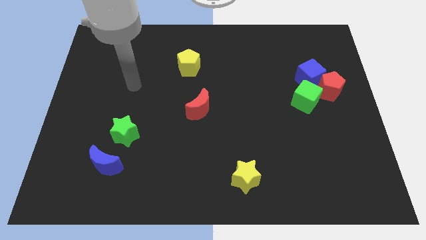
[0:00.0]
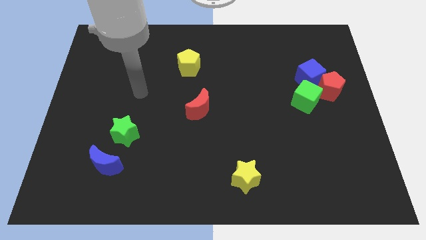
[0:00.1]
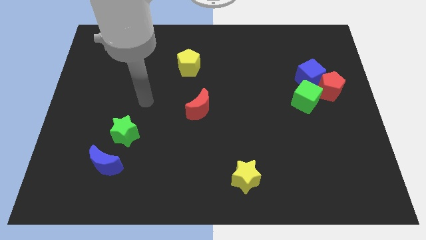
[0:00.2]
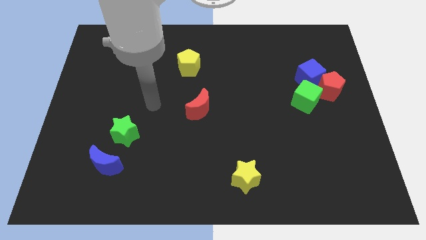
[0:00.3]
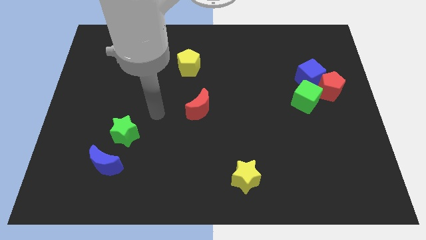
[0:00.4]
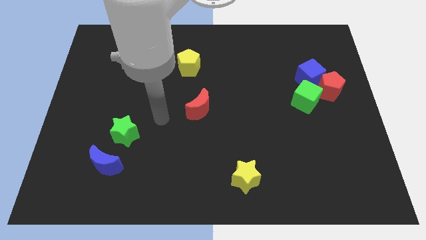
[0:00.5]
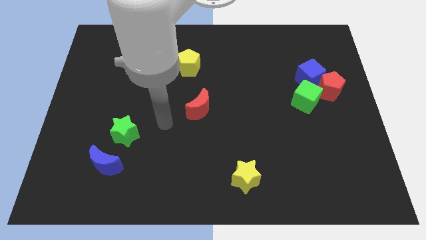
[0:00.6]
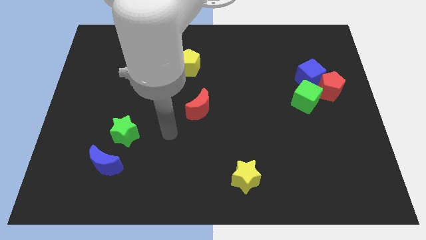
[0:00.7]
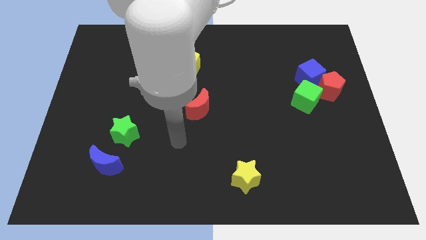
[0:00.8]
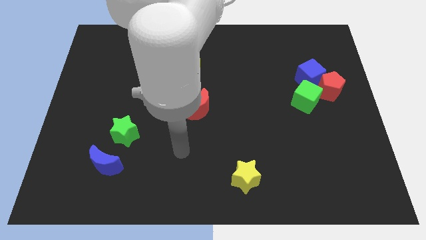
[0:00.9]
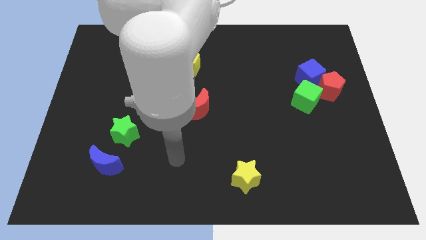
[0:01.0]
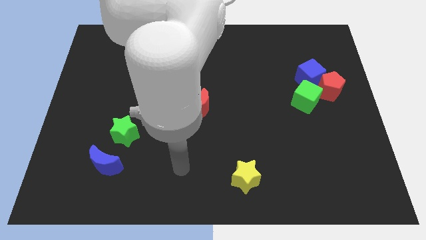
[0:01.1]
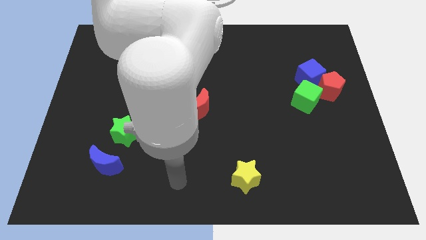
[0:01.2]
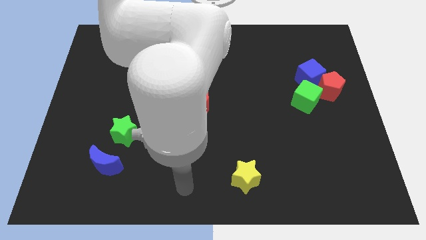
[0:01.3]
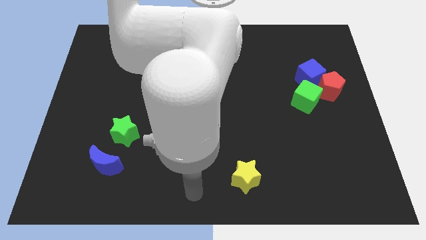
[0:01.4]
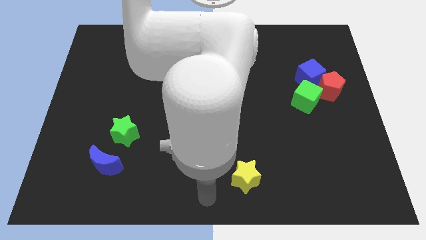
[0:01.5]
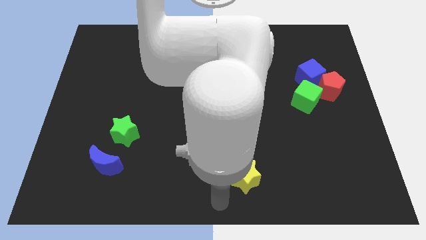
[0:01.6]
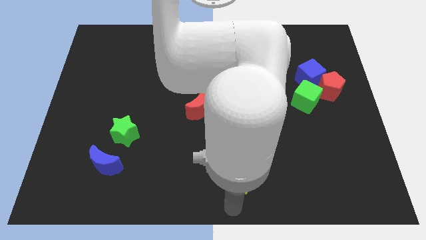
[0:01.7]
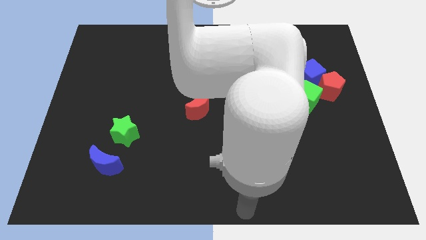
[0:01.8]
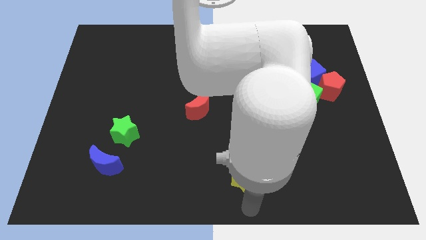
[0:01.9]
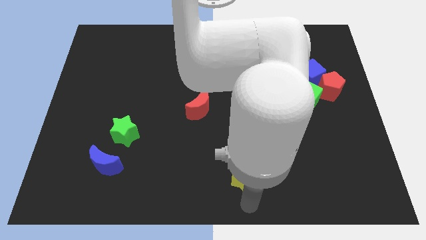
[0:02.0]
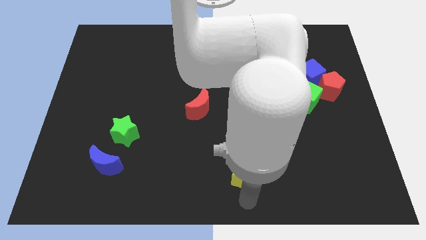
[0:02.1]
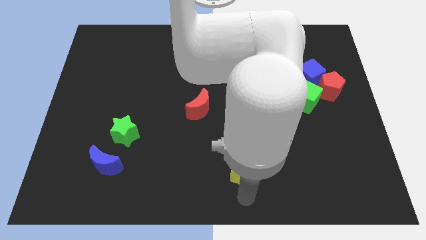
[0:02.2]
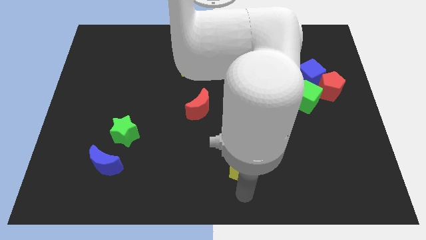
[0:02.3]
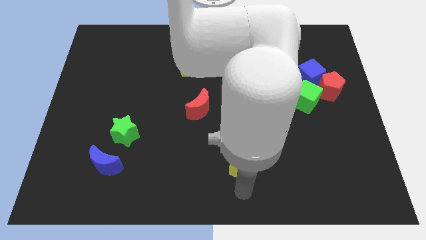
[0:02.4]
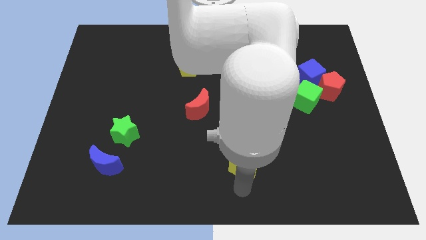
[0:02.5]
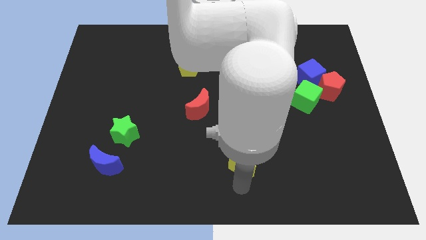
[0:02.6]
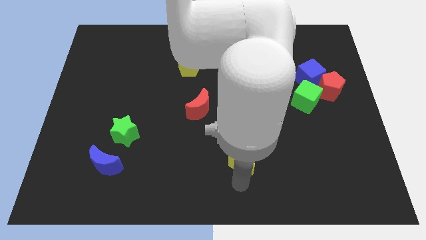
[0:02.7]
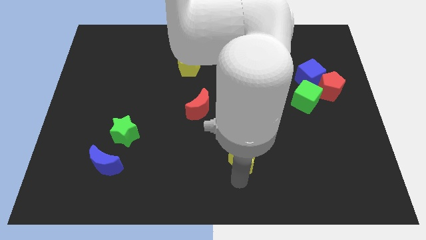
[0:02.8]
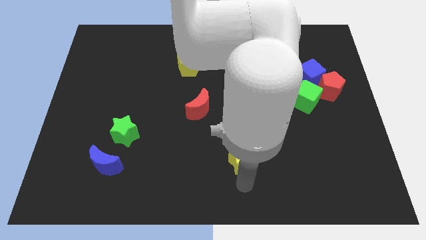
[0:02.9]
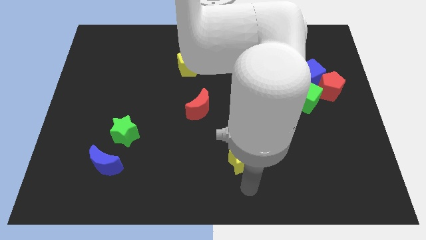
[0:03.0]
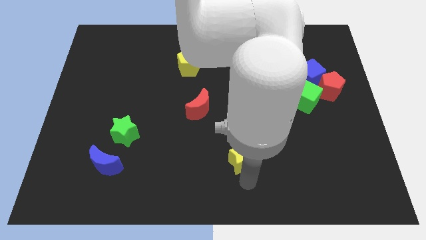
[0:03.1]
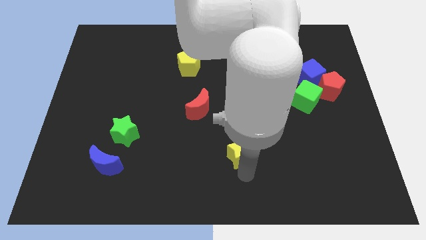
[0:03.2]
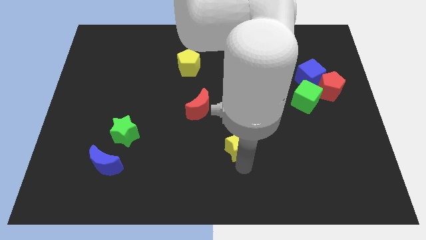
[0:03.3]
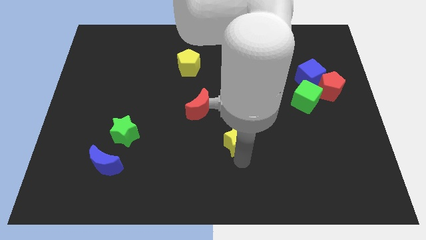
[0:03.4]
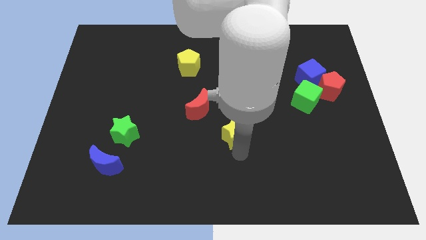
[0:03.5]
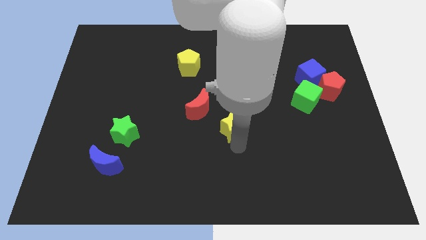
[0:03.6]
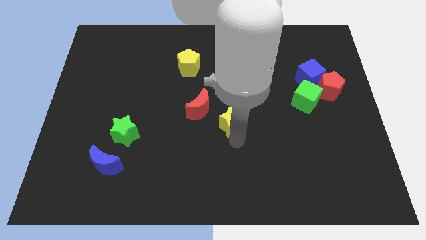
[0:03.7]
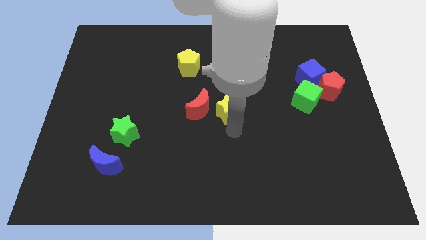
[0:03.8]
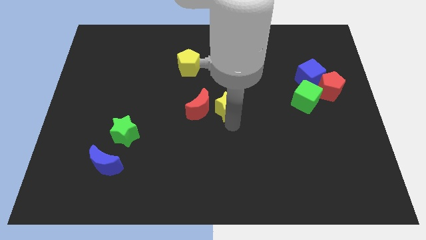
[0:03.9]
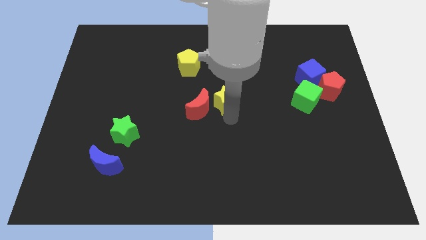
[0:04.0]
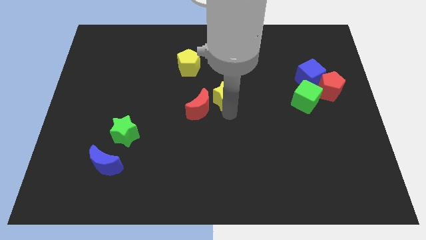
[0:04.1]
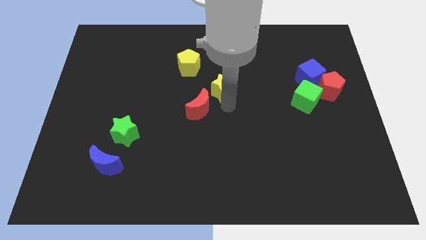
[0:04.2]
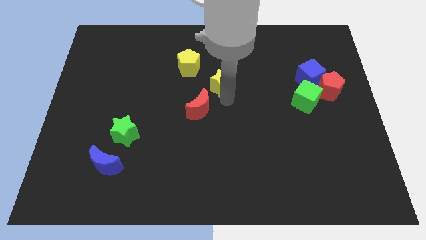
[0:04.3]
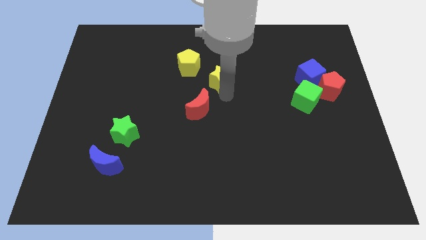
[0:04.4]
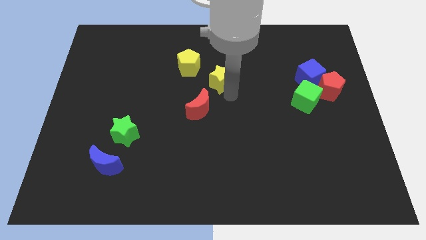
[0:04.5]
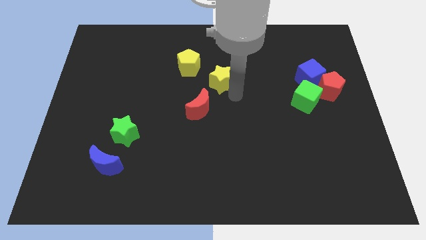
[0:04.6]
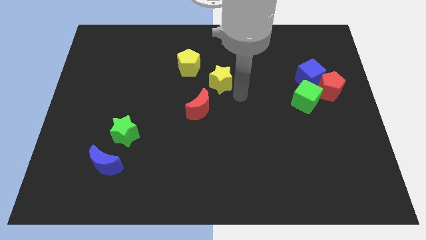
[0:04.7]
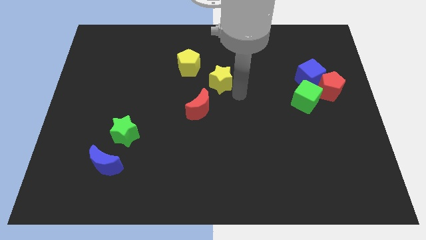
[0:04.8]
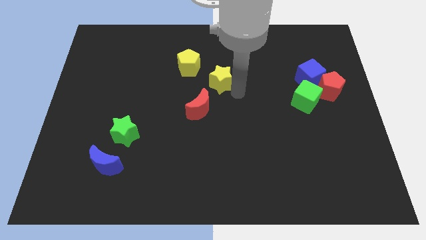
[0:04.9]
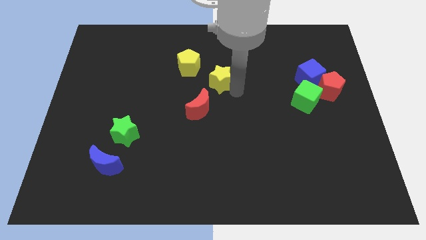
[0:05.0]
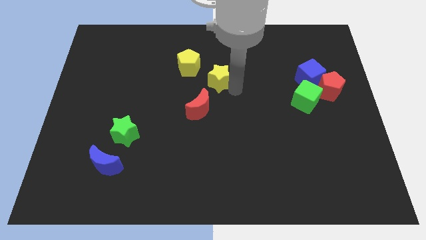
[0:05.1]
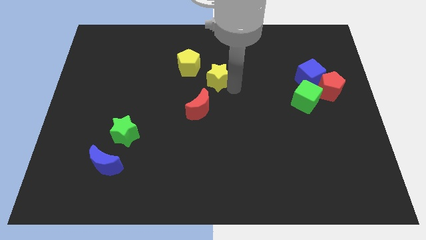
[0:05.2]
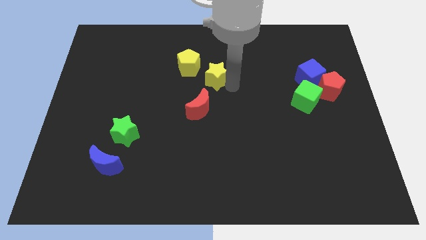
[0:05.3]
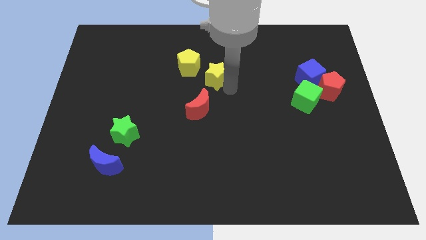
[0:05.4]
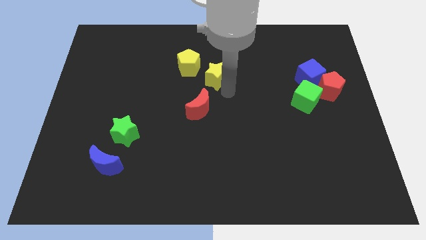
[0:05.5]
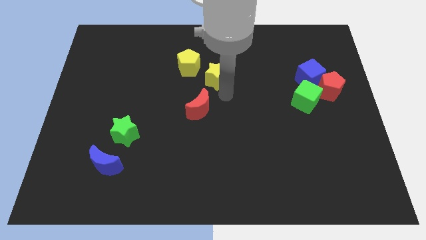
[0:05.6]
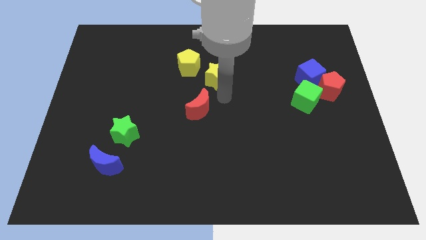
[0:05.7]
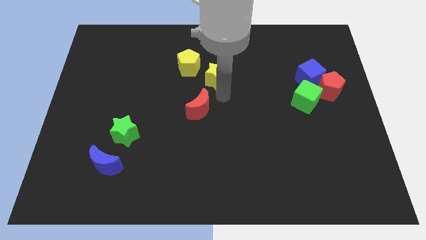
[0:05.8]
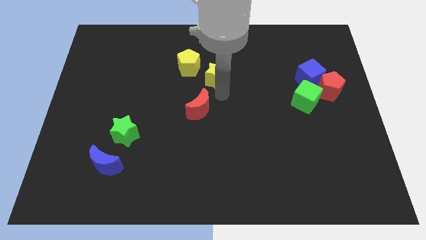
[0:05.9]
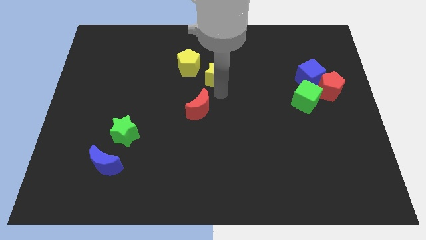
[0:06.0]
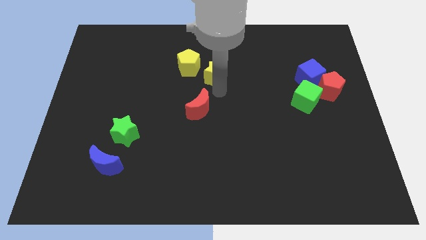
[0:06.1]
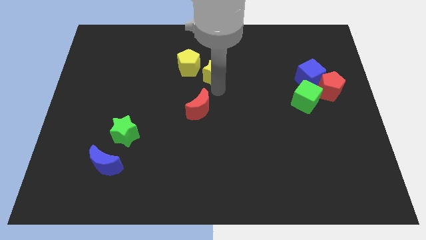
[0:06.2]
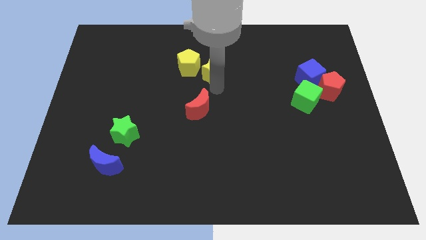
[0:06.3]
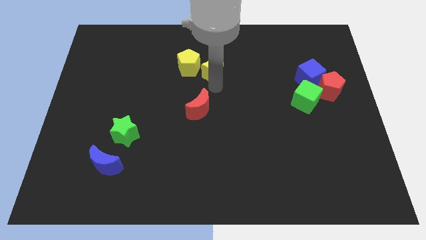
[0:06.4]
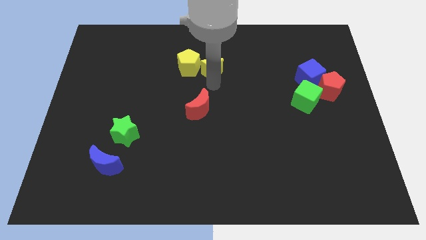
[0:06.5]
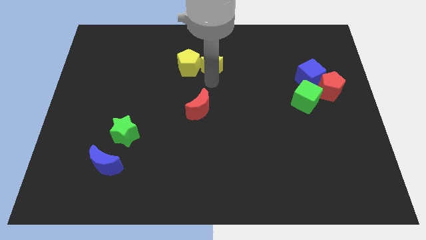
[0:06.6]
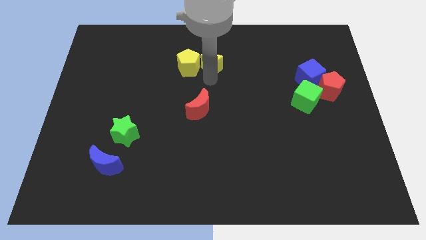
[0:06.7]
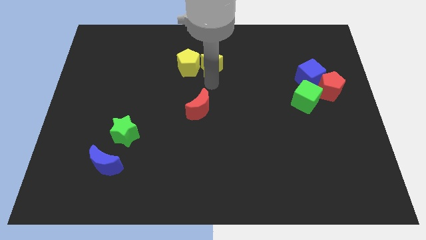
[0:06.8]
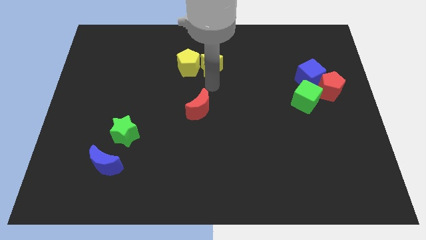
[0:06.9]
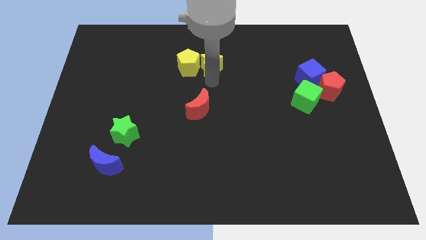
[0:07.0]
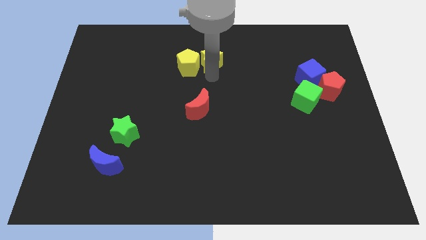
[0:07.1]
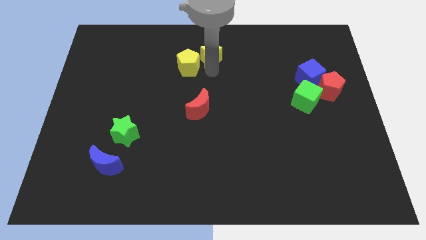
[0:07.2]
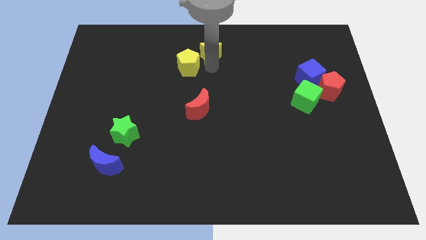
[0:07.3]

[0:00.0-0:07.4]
slide the yellow star to the top
